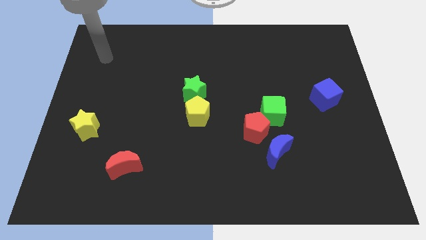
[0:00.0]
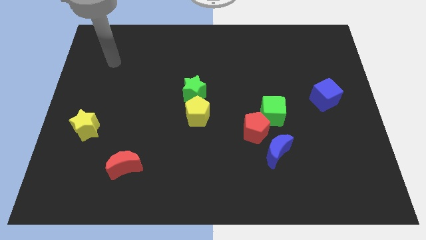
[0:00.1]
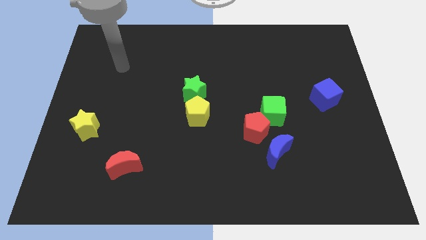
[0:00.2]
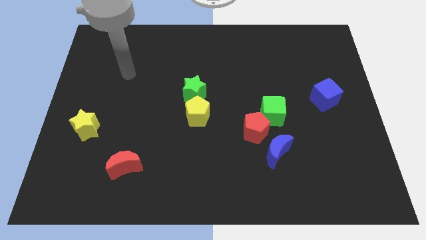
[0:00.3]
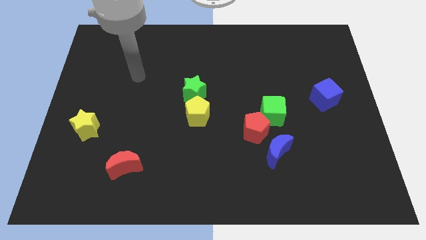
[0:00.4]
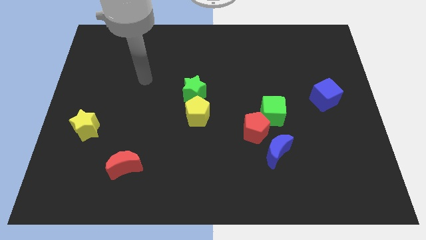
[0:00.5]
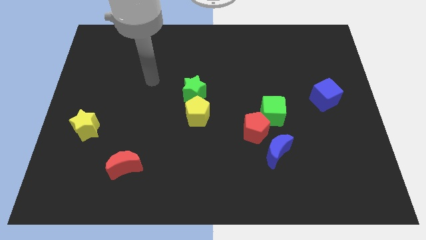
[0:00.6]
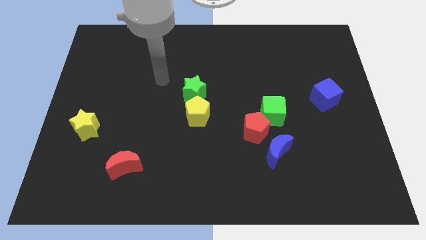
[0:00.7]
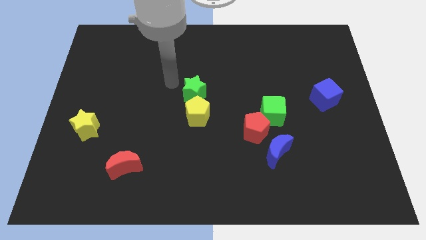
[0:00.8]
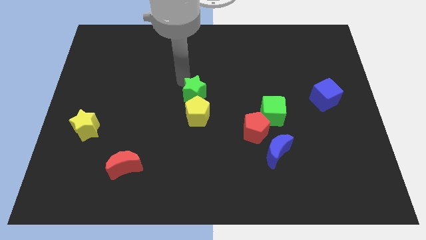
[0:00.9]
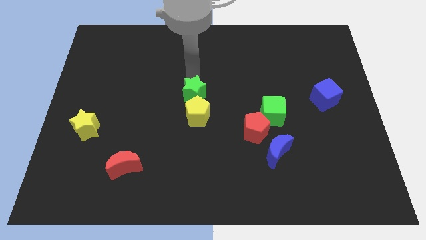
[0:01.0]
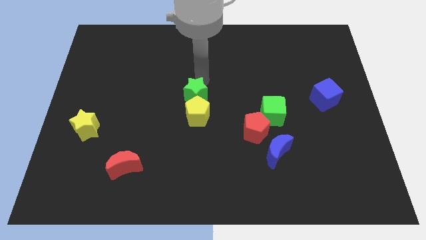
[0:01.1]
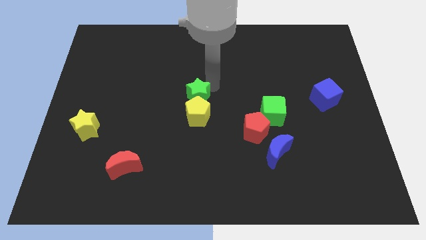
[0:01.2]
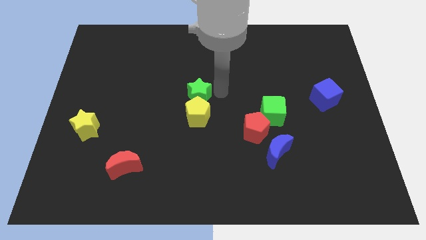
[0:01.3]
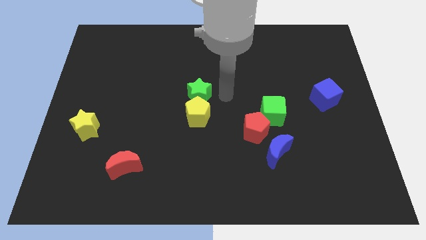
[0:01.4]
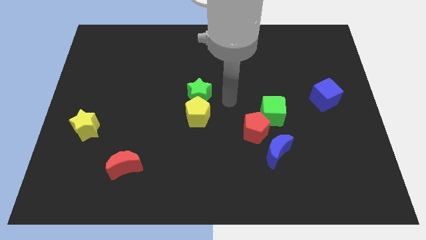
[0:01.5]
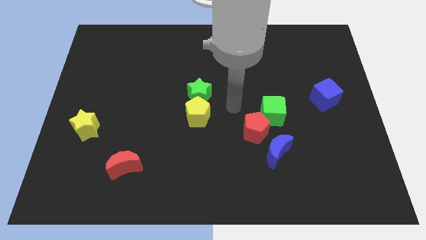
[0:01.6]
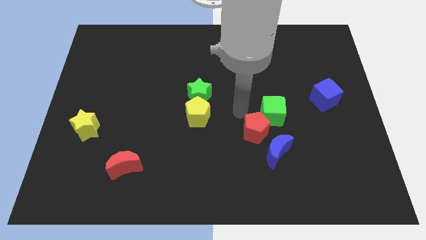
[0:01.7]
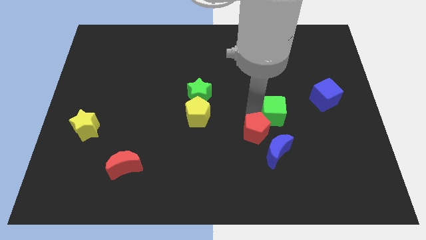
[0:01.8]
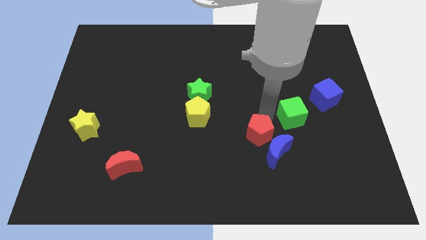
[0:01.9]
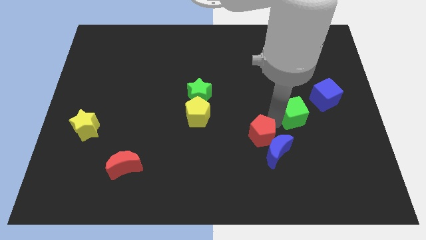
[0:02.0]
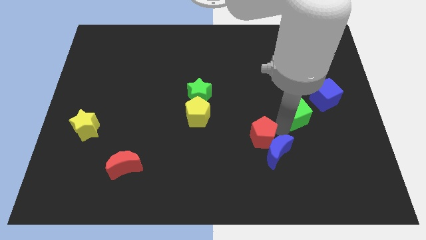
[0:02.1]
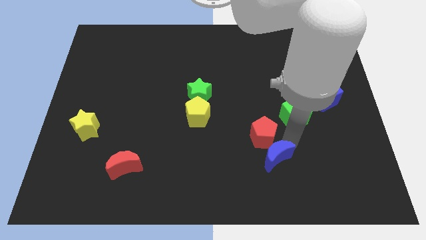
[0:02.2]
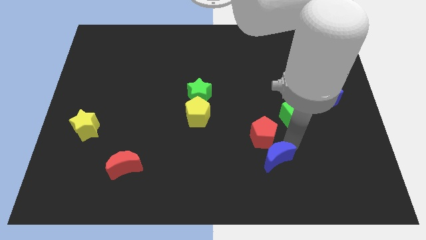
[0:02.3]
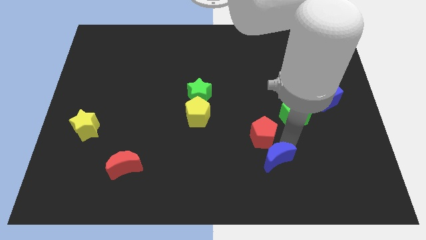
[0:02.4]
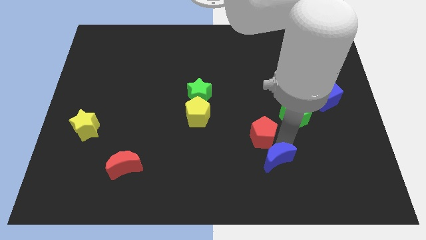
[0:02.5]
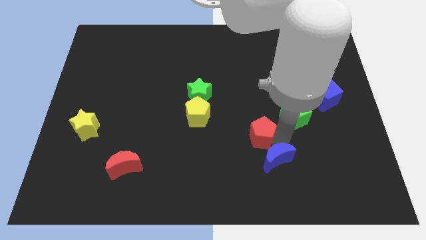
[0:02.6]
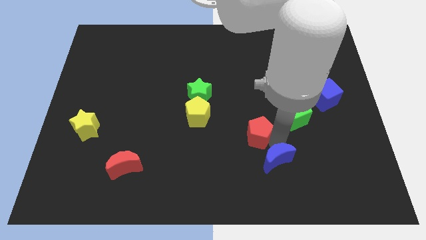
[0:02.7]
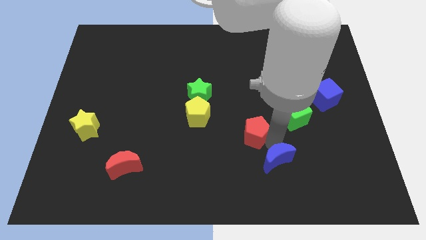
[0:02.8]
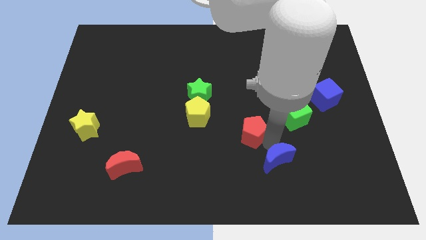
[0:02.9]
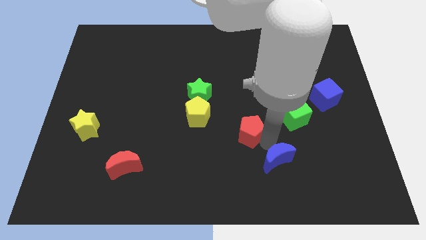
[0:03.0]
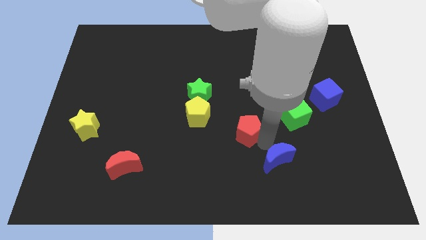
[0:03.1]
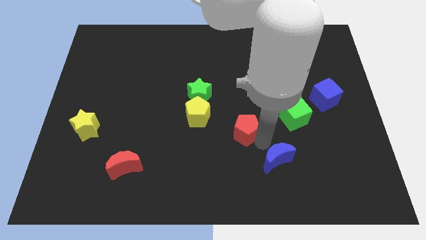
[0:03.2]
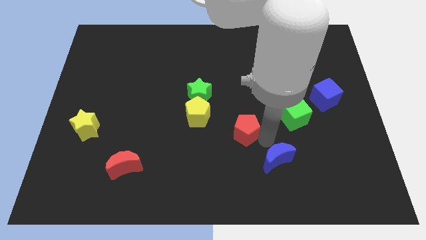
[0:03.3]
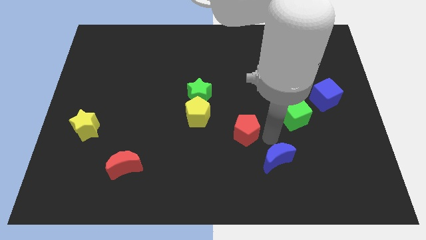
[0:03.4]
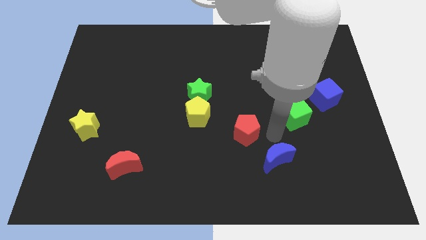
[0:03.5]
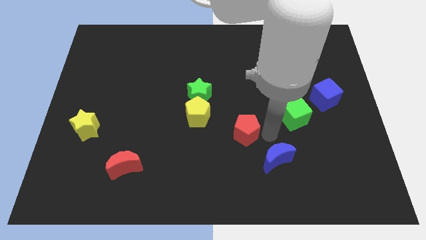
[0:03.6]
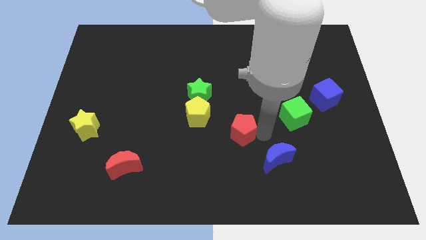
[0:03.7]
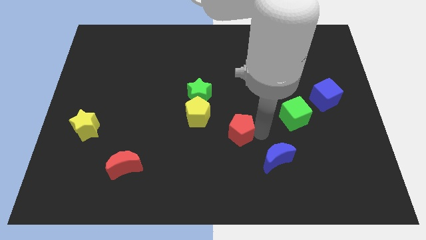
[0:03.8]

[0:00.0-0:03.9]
separate the red pentagon from the green cube and blue moon

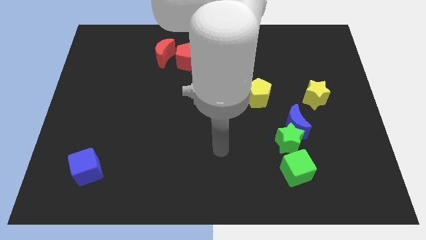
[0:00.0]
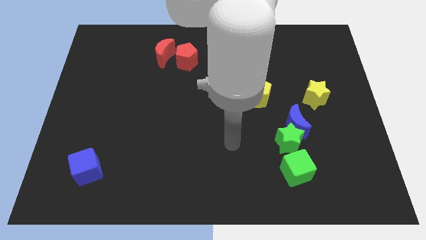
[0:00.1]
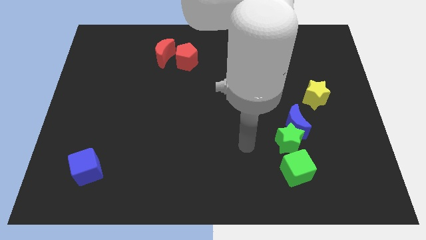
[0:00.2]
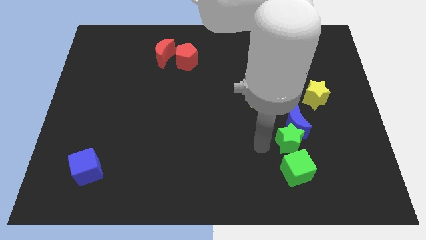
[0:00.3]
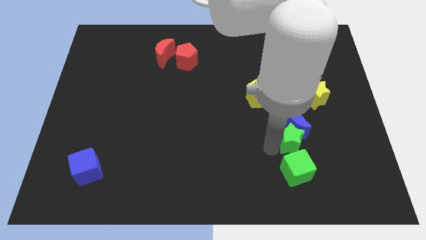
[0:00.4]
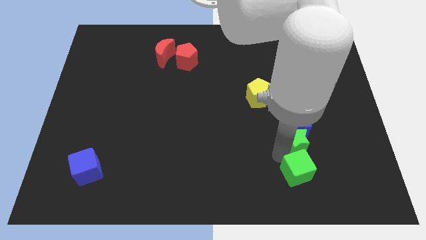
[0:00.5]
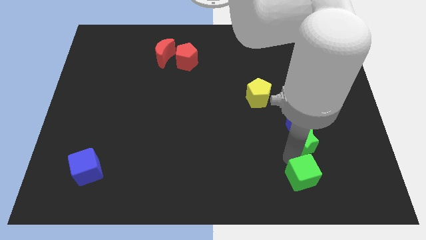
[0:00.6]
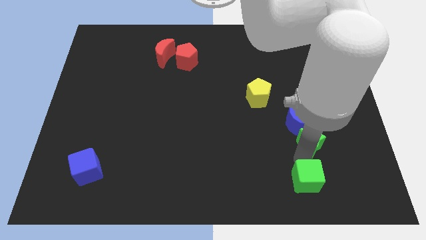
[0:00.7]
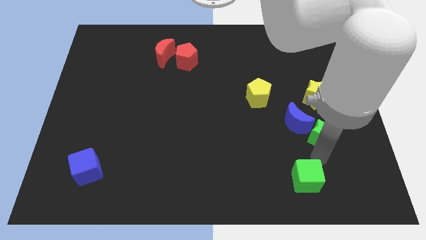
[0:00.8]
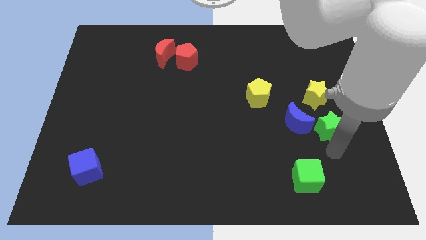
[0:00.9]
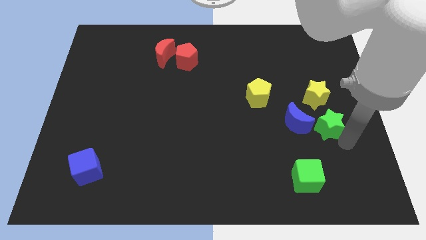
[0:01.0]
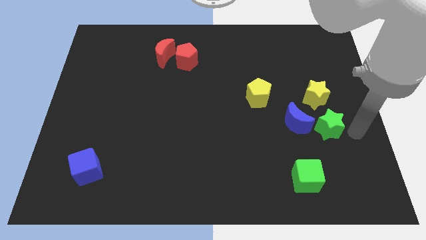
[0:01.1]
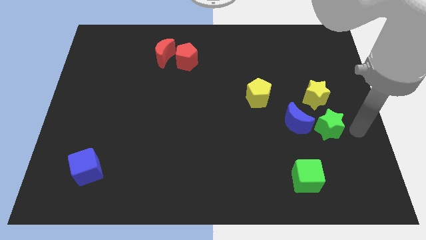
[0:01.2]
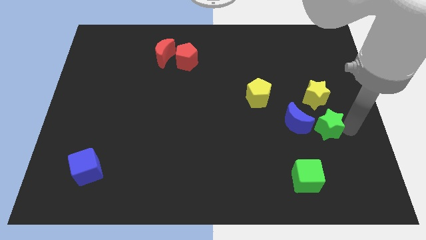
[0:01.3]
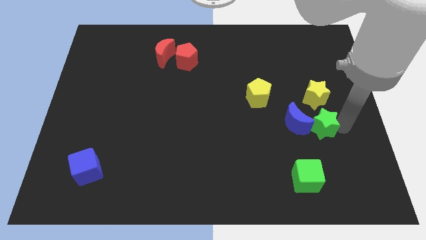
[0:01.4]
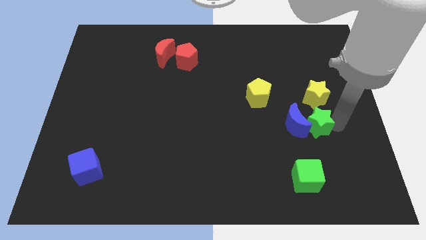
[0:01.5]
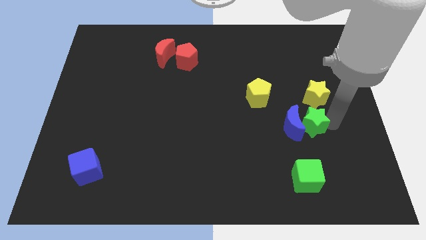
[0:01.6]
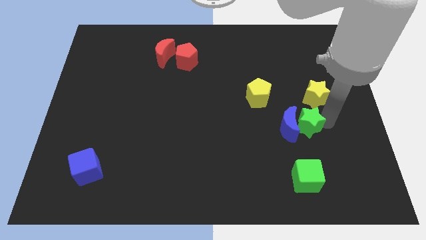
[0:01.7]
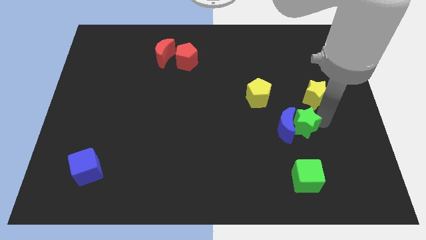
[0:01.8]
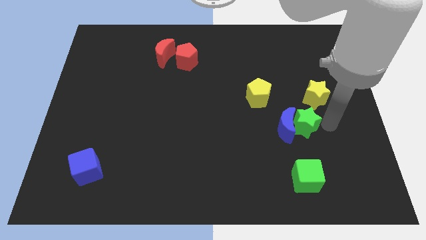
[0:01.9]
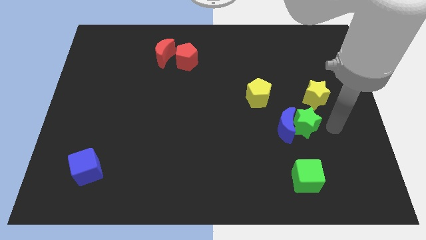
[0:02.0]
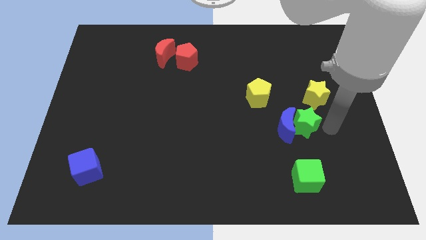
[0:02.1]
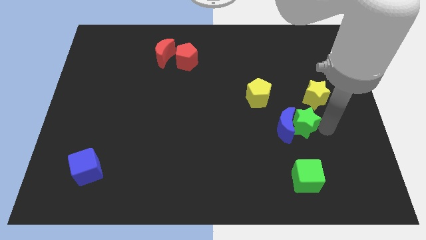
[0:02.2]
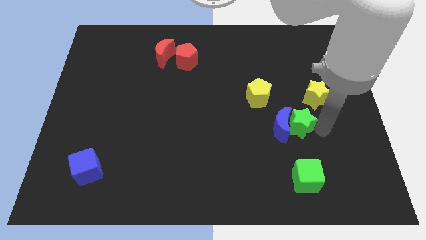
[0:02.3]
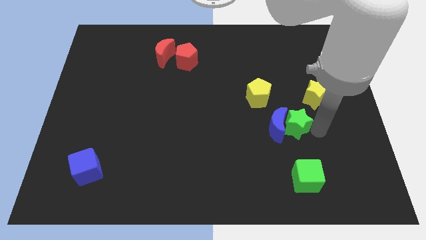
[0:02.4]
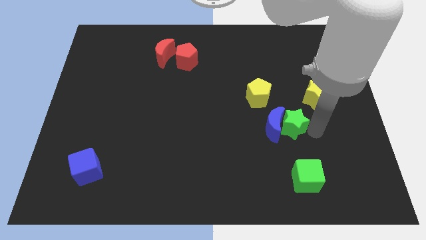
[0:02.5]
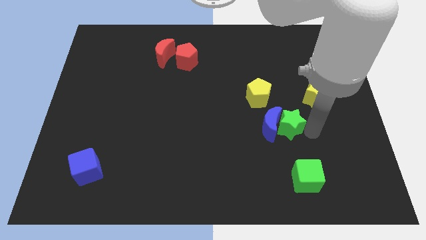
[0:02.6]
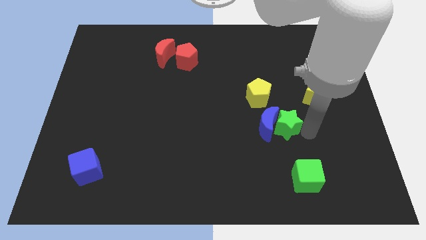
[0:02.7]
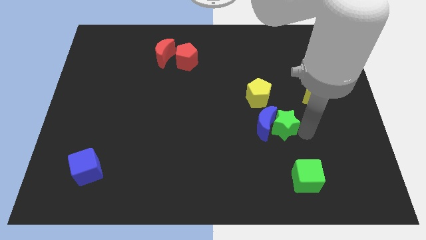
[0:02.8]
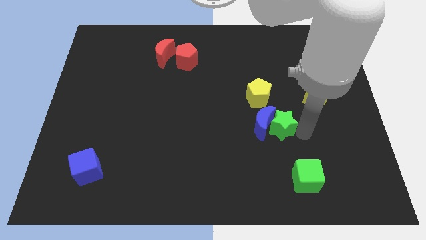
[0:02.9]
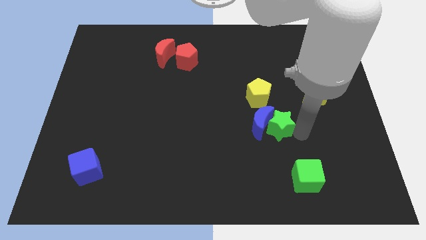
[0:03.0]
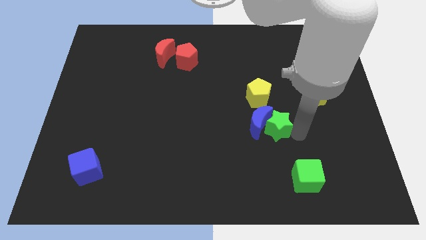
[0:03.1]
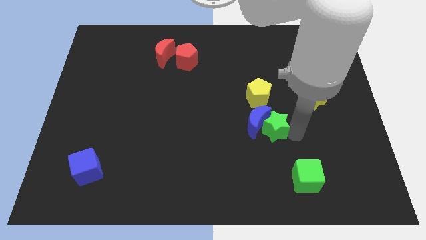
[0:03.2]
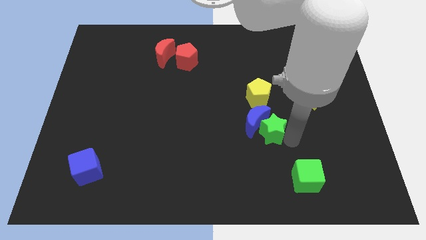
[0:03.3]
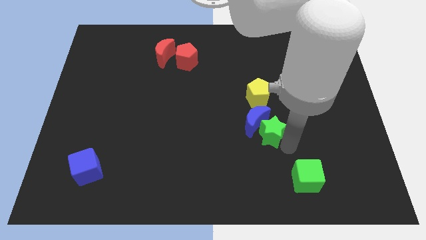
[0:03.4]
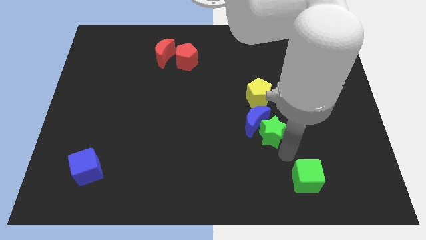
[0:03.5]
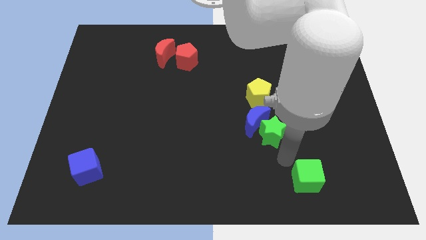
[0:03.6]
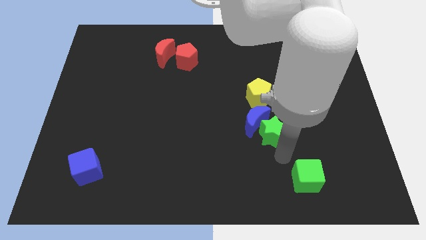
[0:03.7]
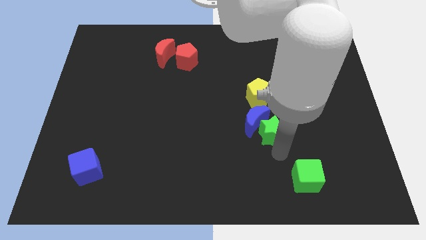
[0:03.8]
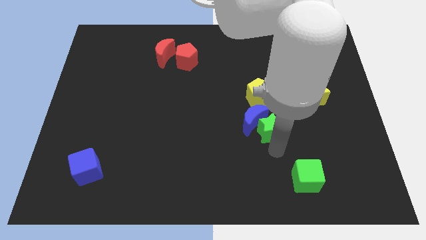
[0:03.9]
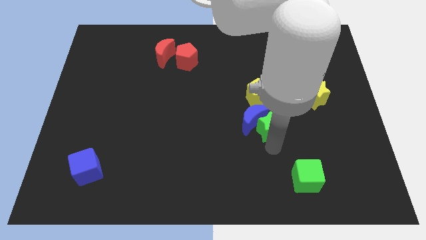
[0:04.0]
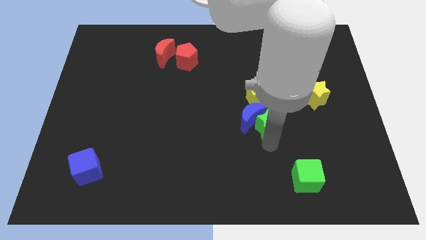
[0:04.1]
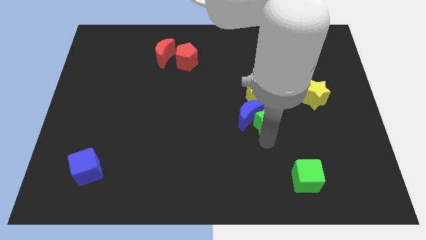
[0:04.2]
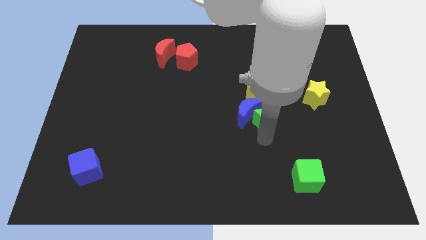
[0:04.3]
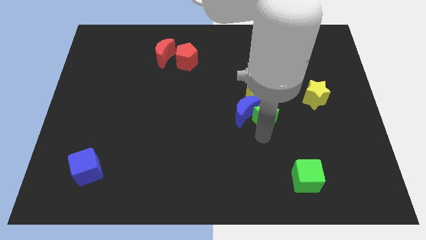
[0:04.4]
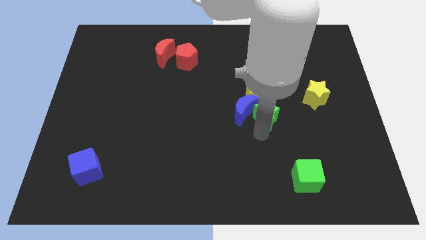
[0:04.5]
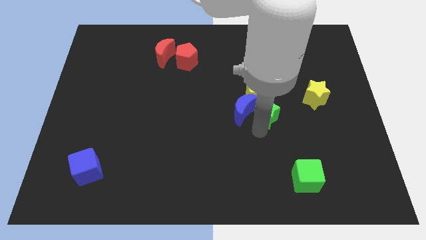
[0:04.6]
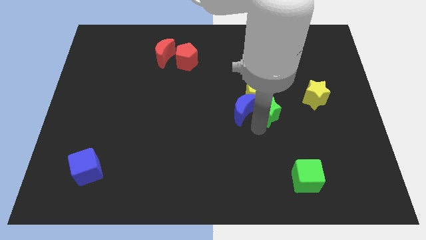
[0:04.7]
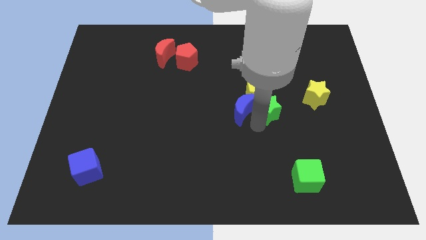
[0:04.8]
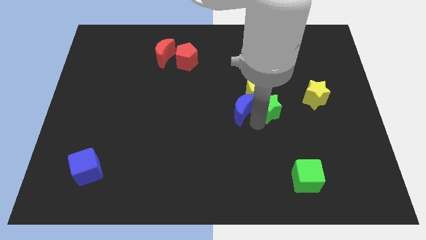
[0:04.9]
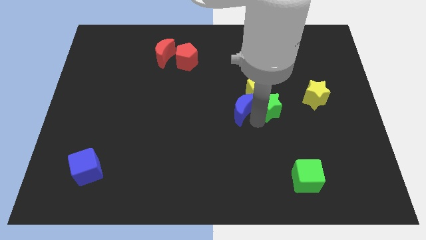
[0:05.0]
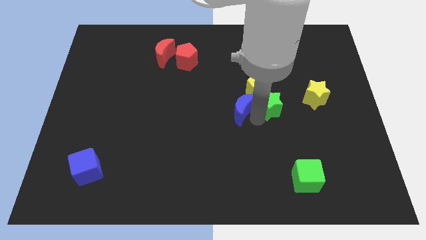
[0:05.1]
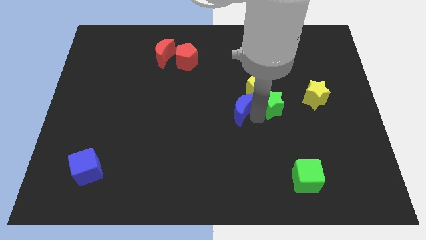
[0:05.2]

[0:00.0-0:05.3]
pull the green star apart from the blue moon and green cube

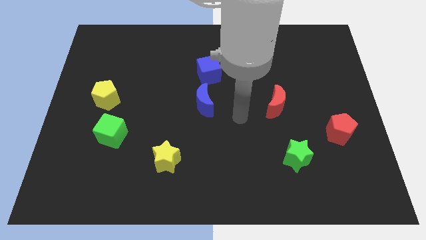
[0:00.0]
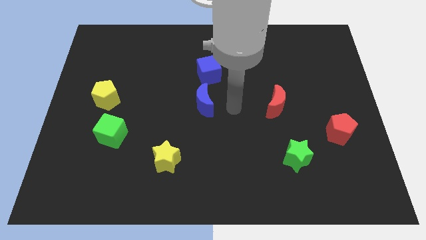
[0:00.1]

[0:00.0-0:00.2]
move the blue moon away from the blue cube

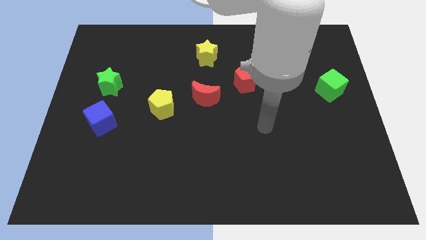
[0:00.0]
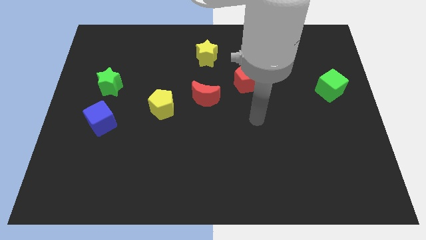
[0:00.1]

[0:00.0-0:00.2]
separate the red moon from the yellow pentagon
